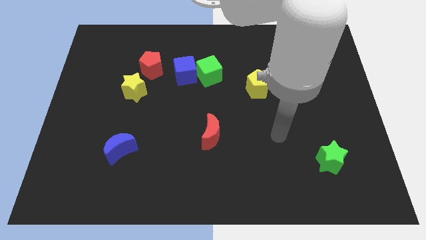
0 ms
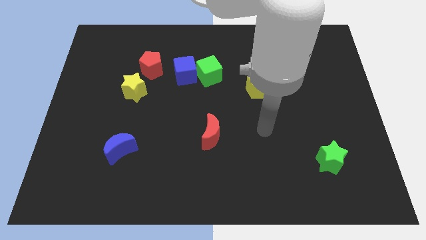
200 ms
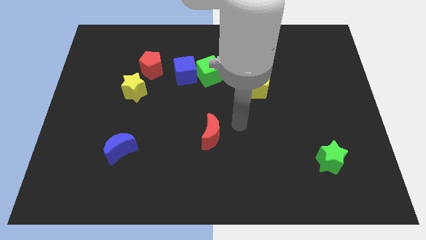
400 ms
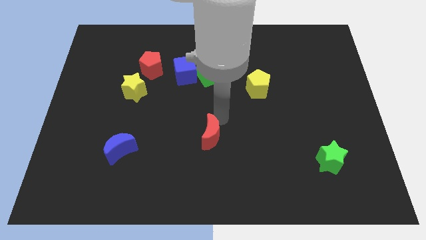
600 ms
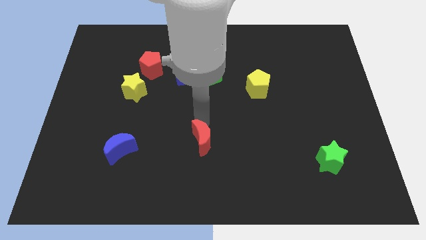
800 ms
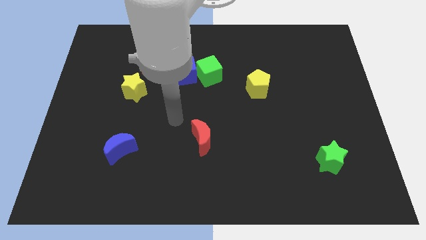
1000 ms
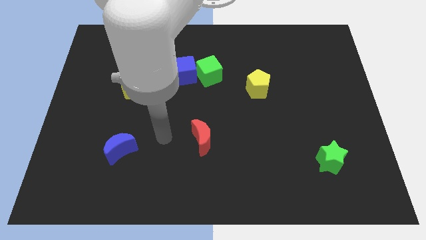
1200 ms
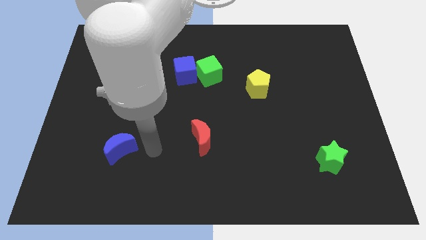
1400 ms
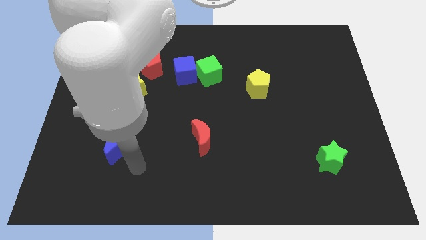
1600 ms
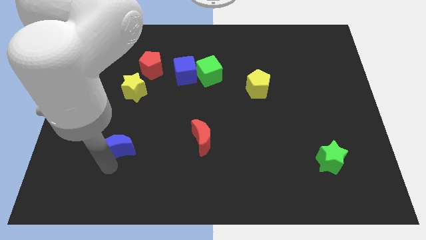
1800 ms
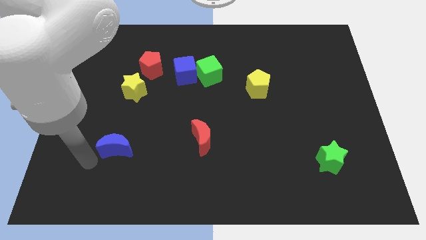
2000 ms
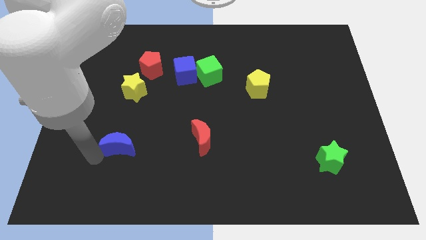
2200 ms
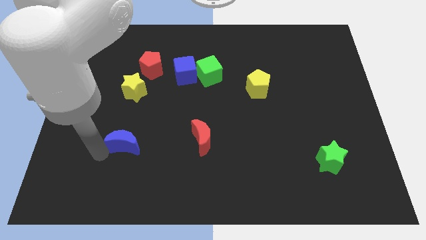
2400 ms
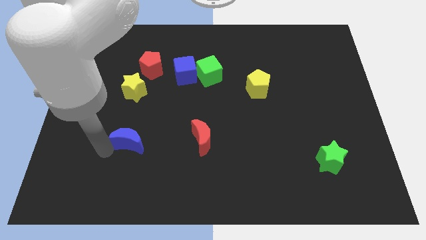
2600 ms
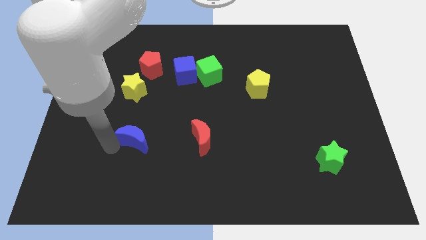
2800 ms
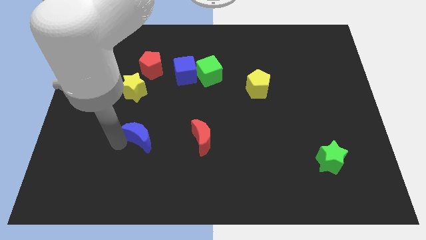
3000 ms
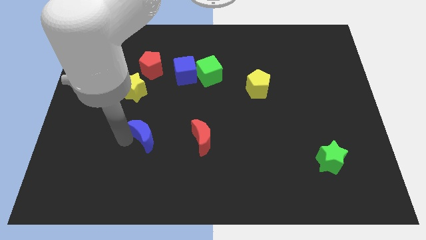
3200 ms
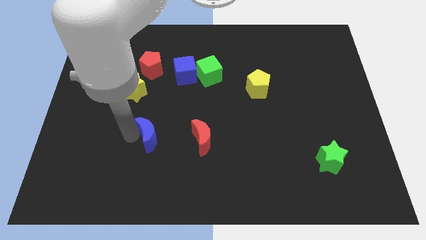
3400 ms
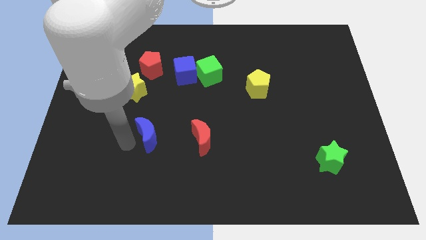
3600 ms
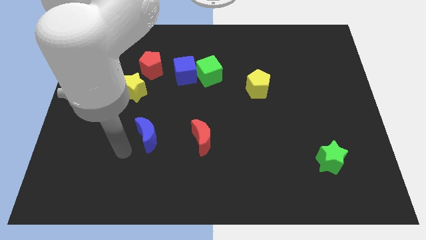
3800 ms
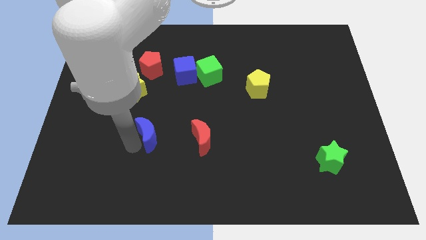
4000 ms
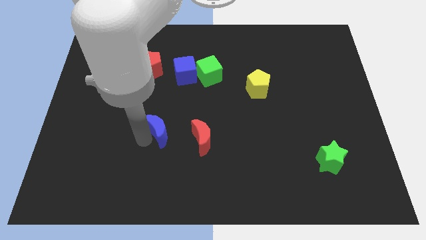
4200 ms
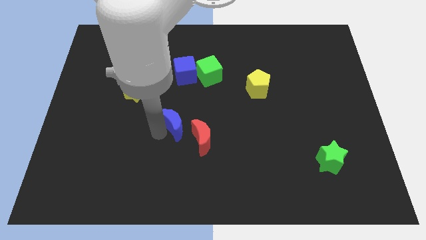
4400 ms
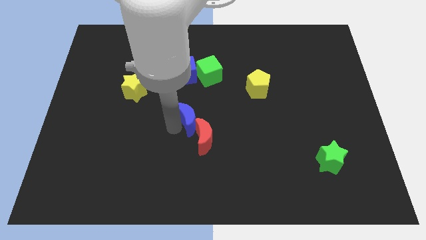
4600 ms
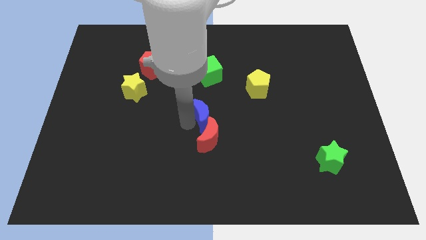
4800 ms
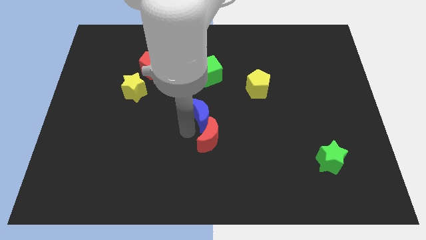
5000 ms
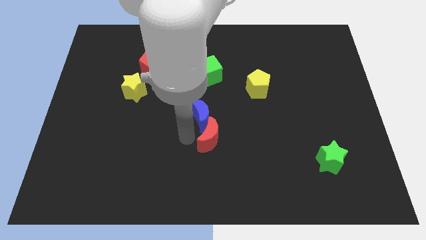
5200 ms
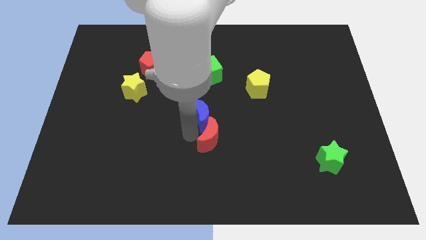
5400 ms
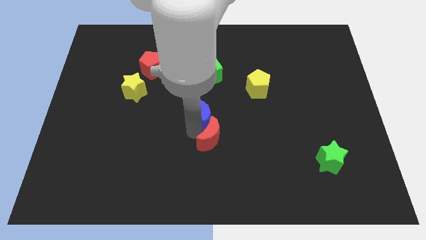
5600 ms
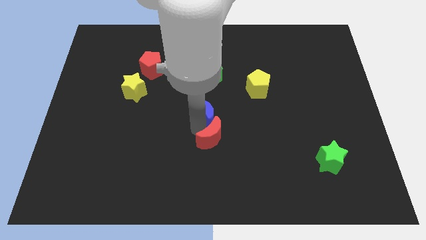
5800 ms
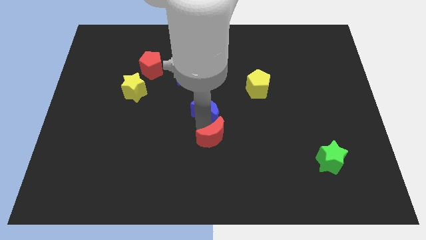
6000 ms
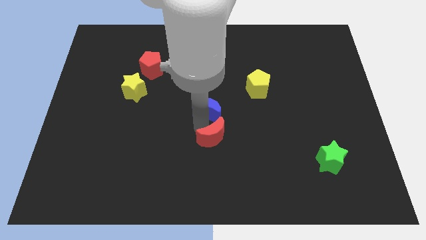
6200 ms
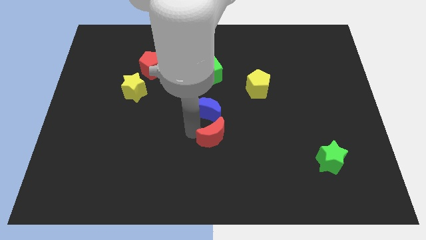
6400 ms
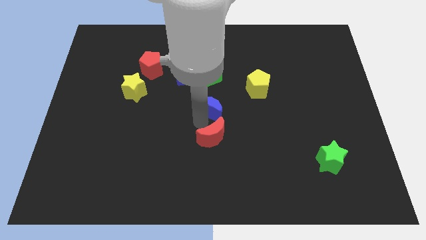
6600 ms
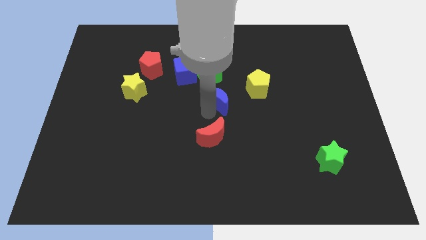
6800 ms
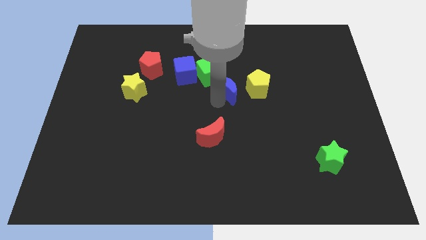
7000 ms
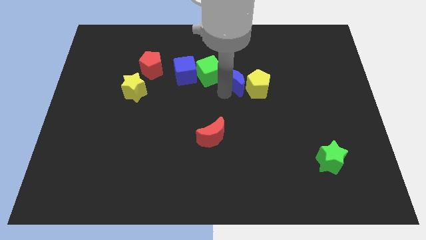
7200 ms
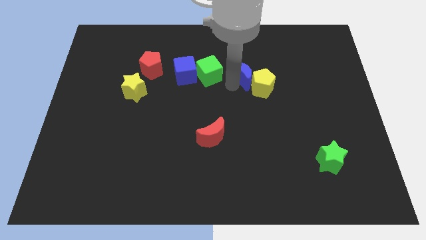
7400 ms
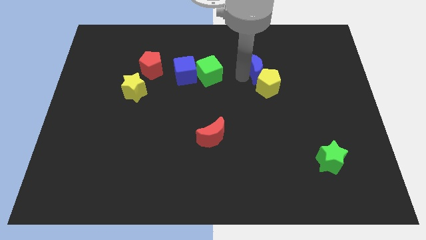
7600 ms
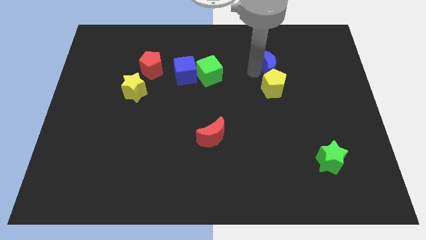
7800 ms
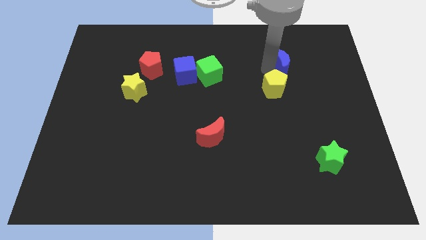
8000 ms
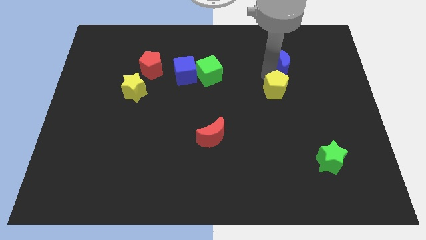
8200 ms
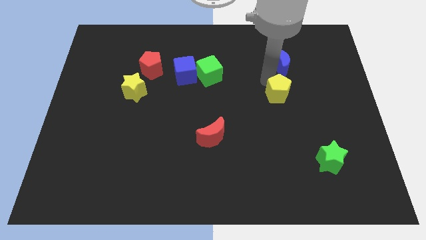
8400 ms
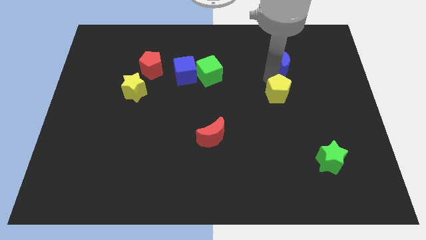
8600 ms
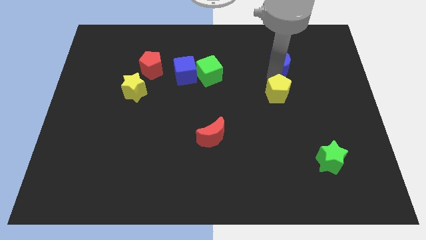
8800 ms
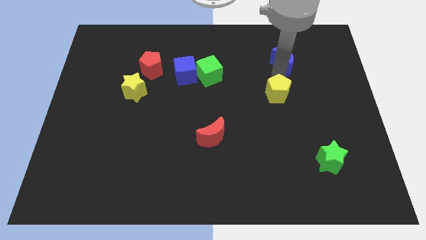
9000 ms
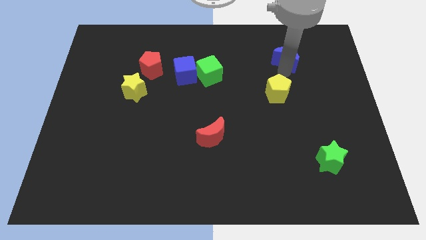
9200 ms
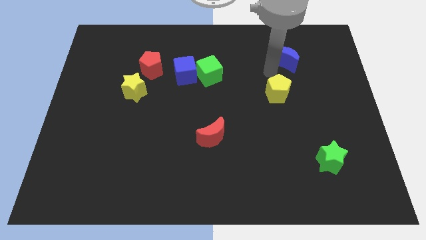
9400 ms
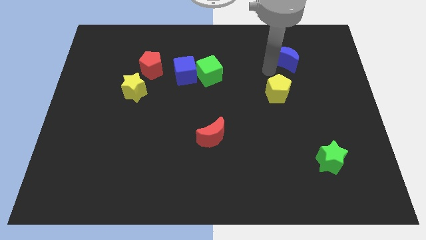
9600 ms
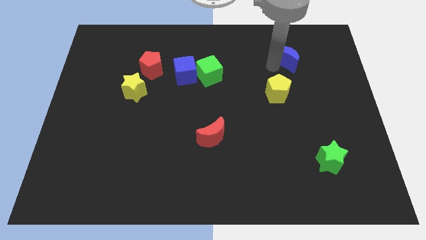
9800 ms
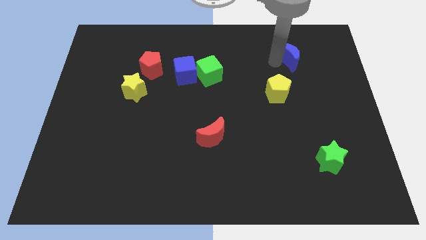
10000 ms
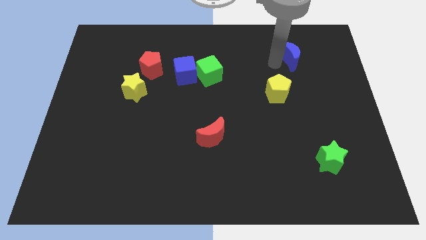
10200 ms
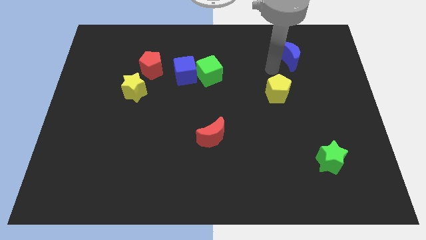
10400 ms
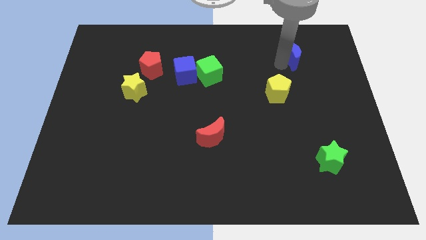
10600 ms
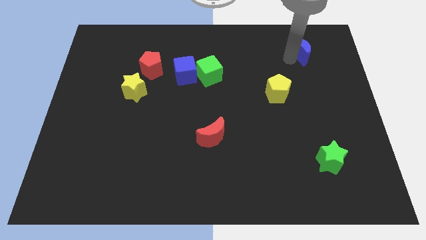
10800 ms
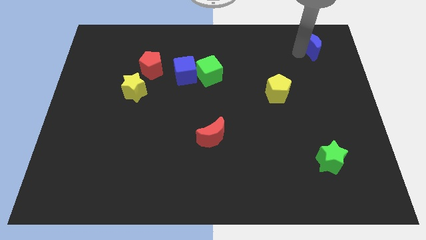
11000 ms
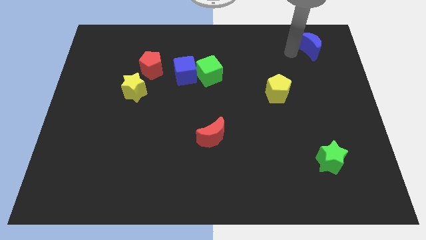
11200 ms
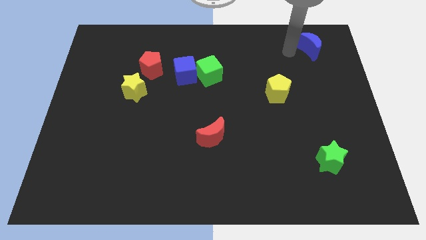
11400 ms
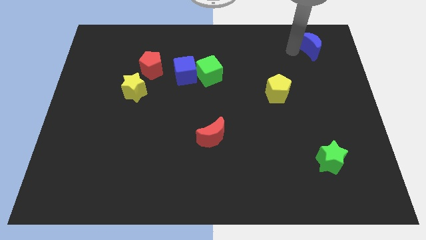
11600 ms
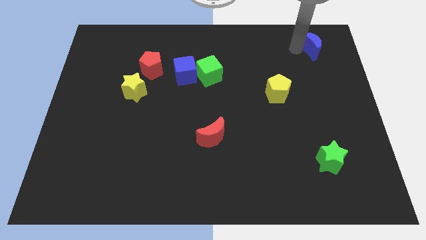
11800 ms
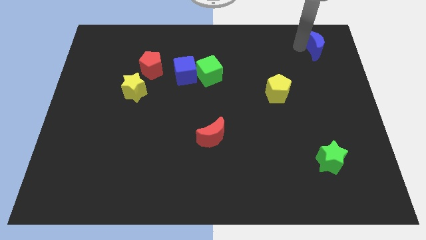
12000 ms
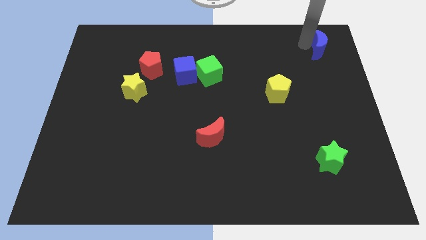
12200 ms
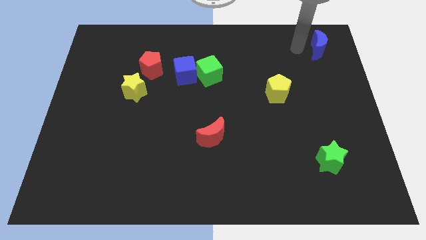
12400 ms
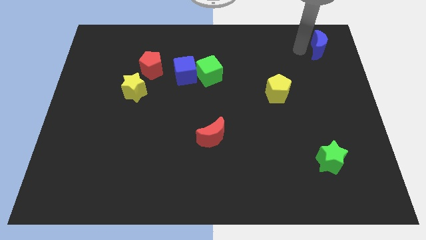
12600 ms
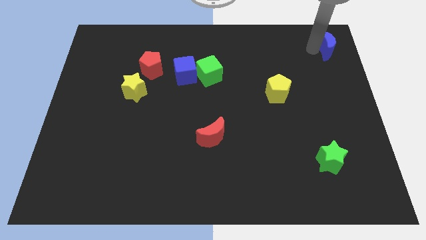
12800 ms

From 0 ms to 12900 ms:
move the blue moon to the upper right corner

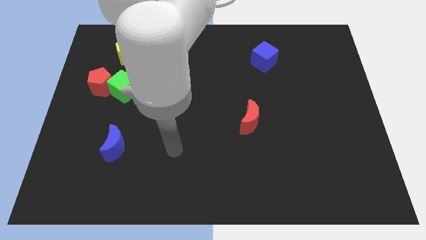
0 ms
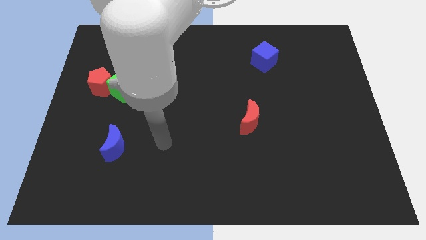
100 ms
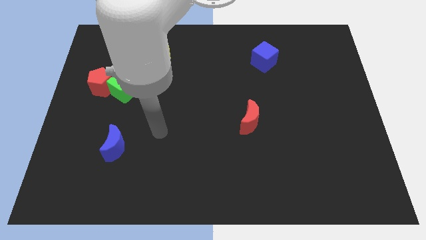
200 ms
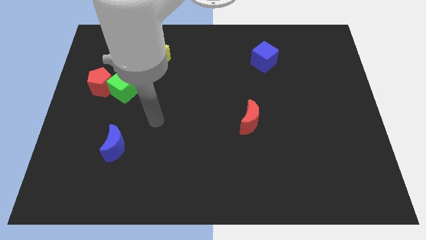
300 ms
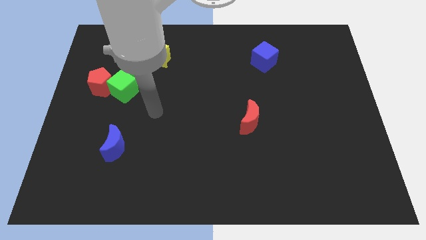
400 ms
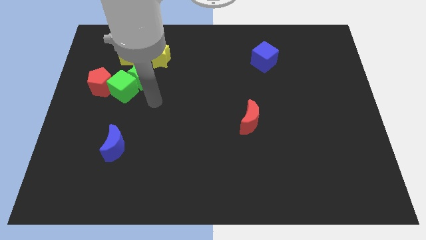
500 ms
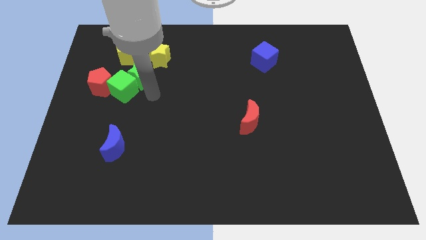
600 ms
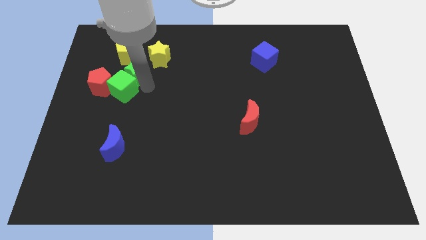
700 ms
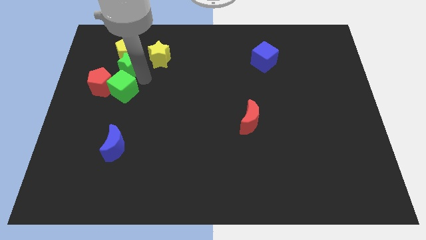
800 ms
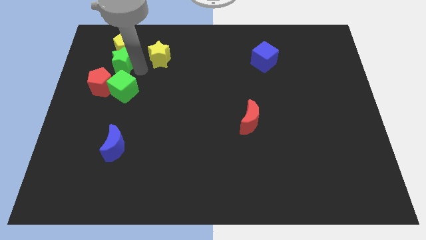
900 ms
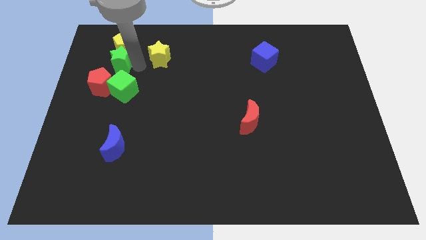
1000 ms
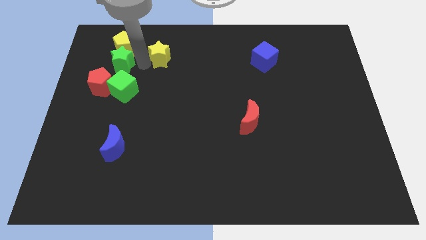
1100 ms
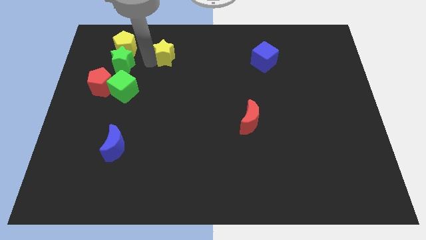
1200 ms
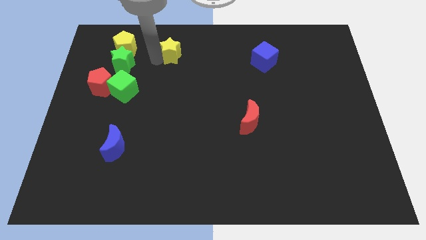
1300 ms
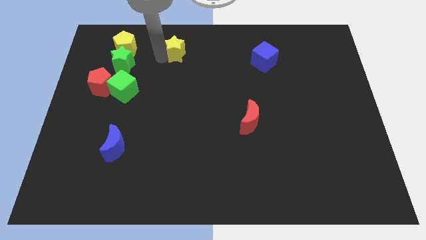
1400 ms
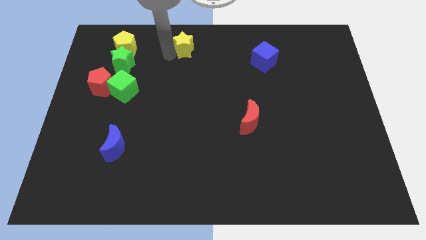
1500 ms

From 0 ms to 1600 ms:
slide the yellow star to the top side
